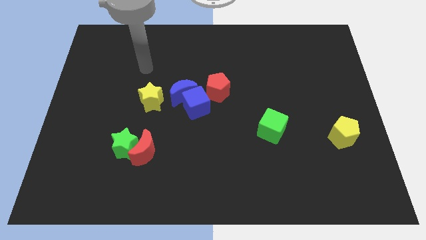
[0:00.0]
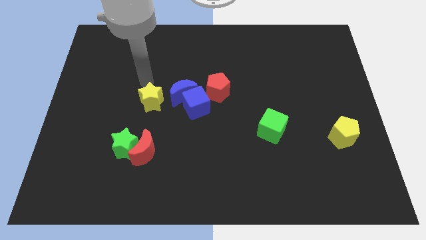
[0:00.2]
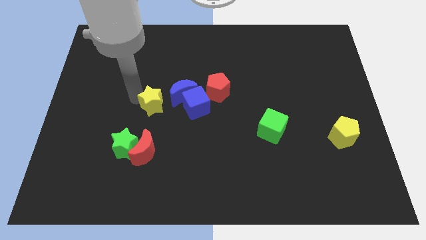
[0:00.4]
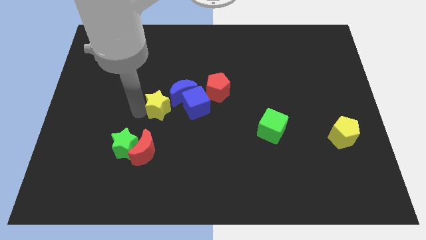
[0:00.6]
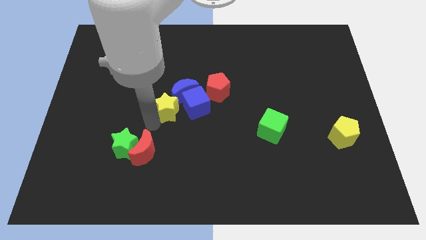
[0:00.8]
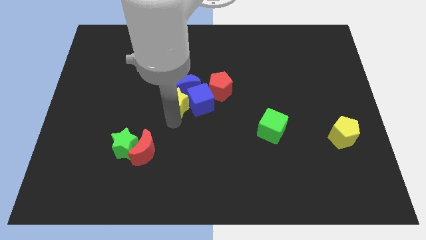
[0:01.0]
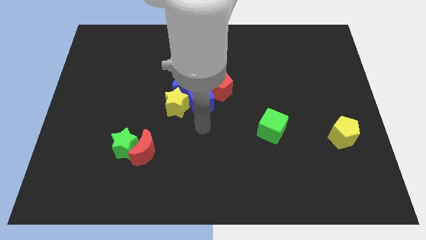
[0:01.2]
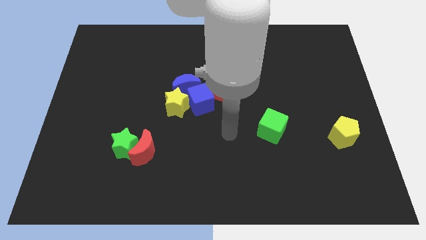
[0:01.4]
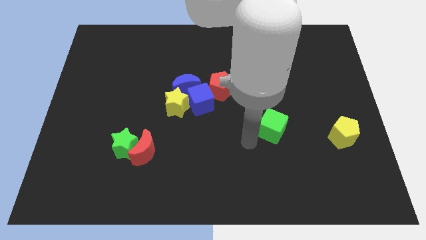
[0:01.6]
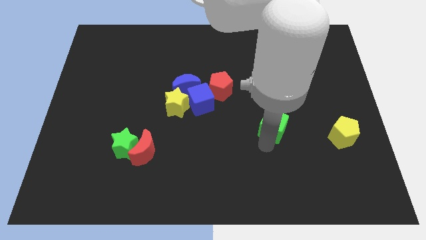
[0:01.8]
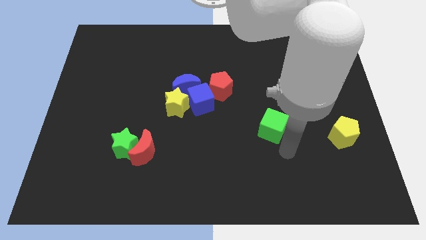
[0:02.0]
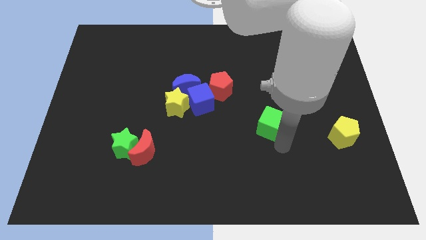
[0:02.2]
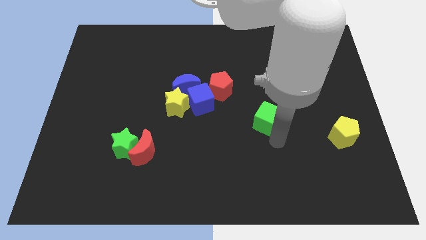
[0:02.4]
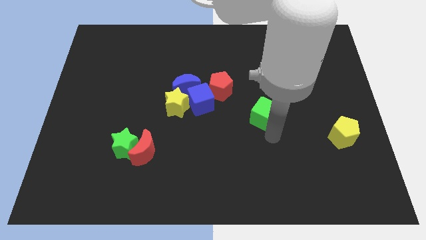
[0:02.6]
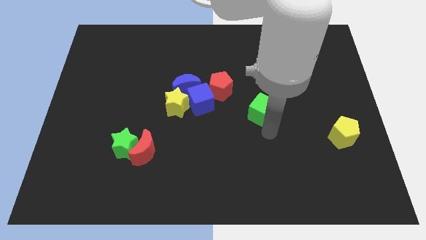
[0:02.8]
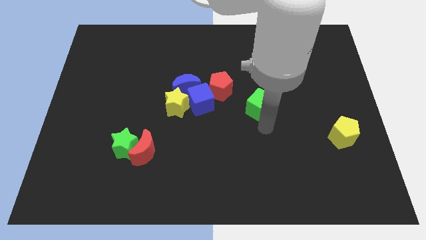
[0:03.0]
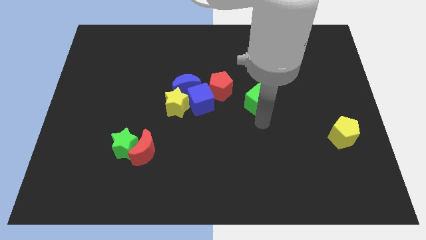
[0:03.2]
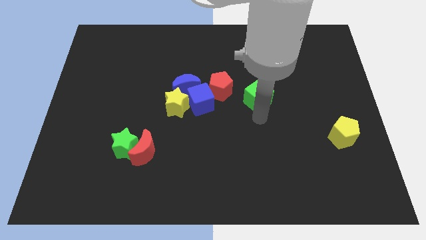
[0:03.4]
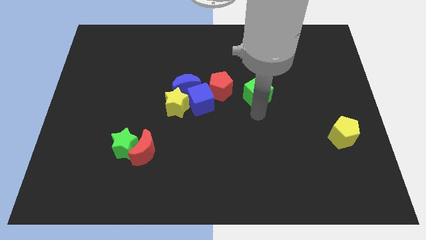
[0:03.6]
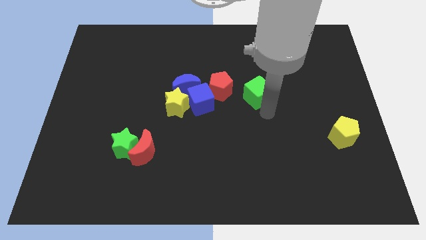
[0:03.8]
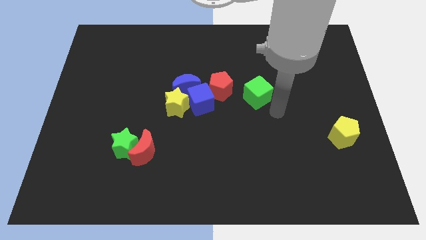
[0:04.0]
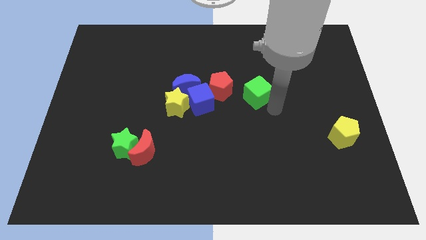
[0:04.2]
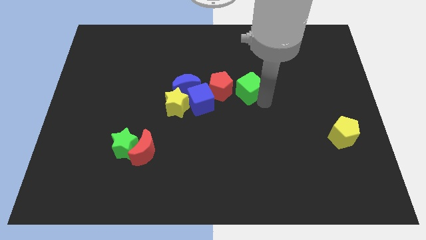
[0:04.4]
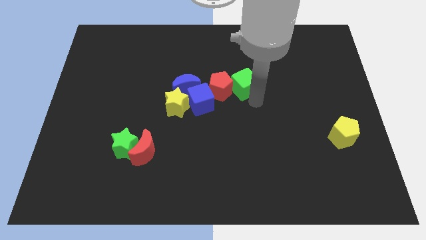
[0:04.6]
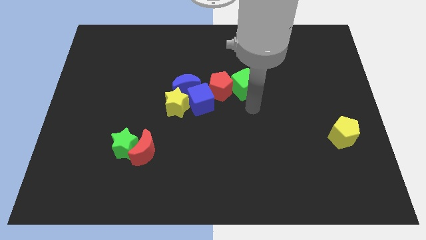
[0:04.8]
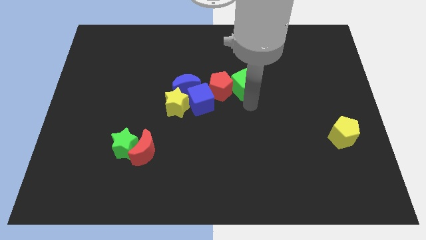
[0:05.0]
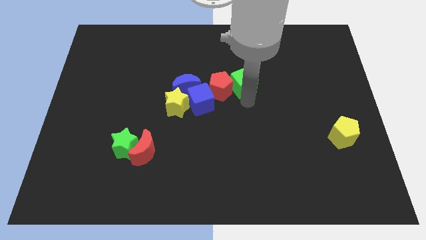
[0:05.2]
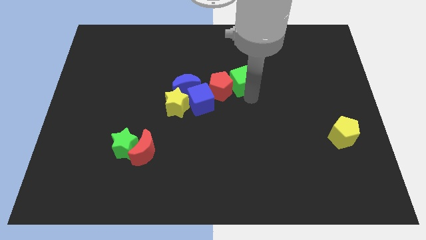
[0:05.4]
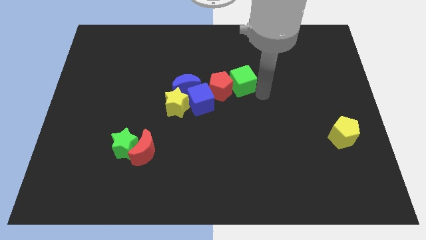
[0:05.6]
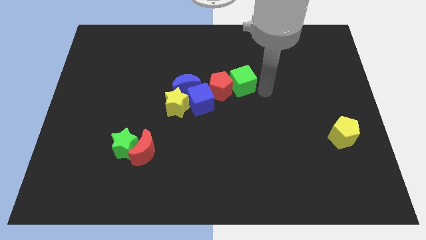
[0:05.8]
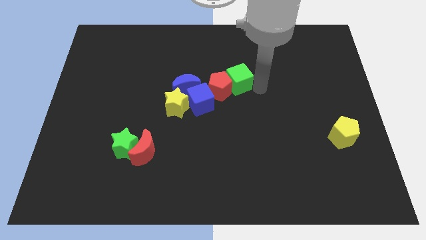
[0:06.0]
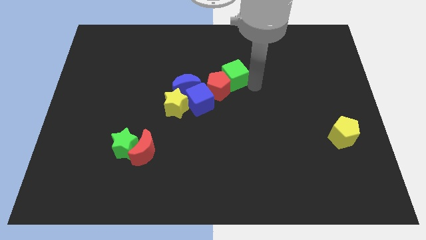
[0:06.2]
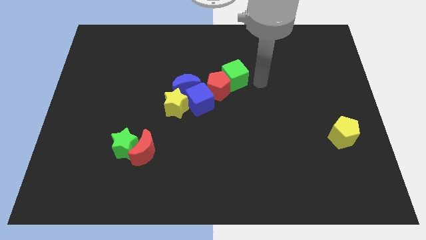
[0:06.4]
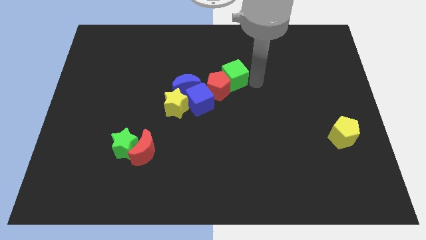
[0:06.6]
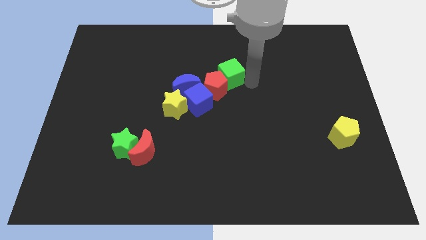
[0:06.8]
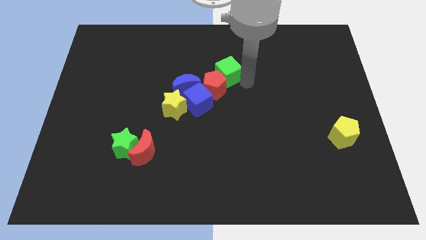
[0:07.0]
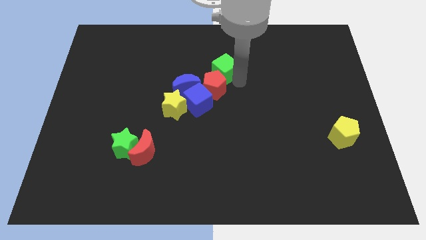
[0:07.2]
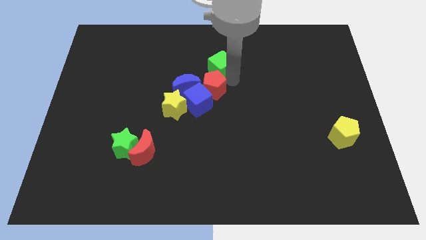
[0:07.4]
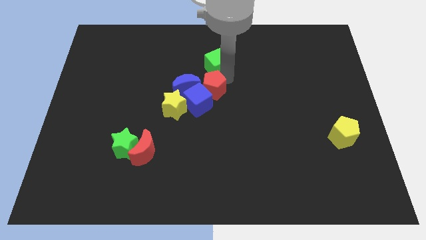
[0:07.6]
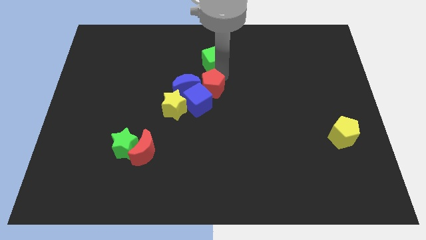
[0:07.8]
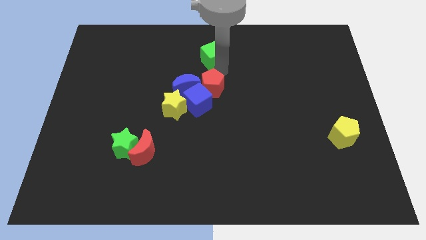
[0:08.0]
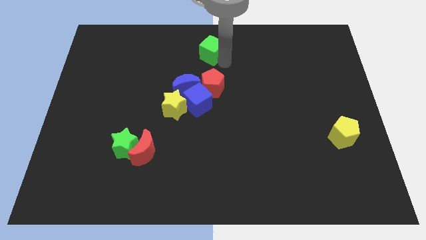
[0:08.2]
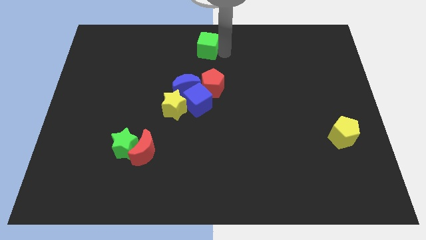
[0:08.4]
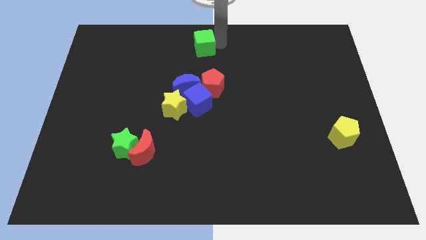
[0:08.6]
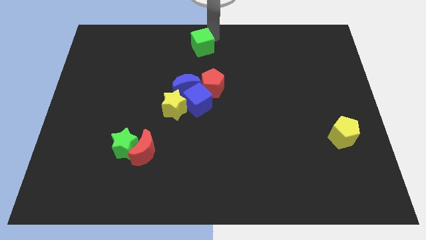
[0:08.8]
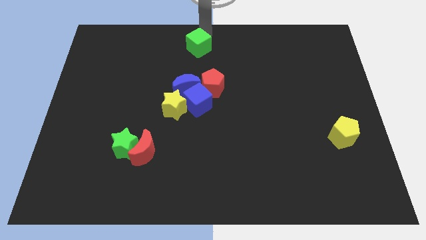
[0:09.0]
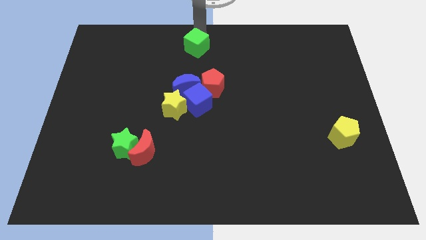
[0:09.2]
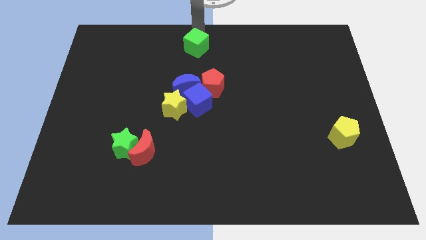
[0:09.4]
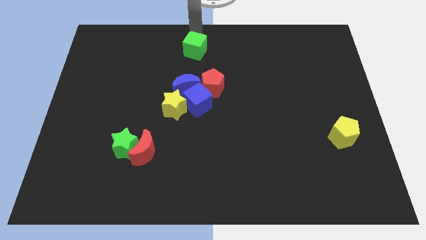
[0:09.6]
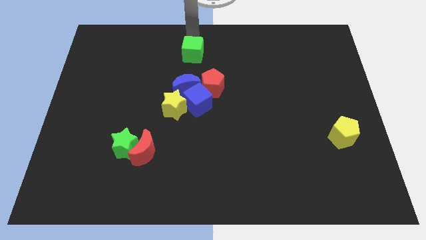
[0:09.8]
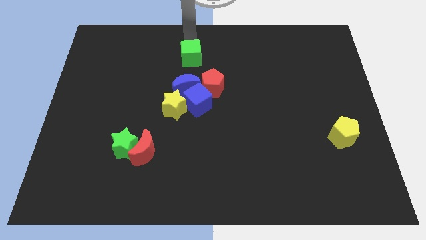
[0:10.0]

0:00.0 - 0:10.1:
push the green cube to the top left of the red pentagon

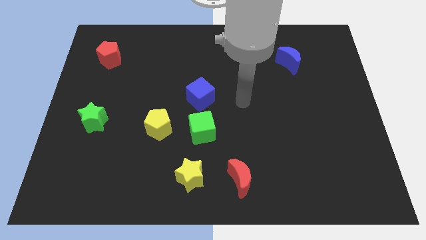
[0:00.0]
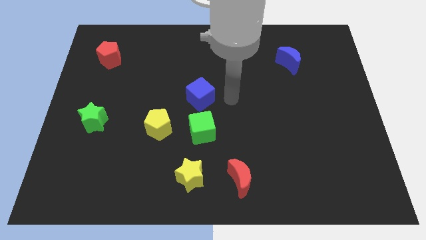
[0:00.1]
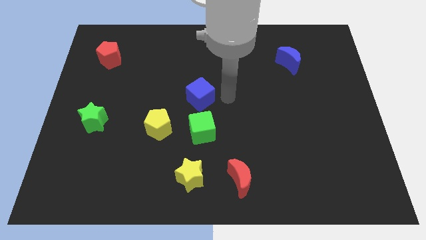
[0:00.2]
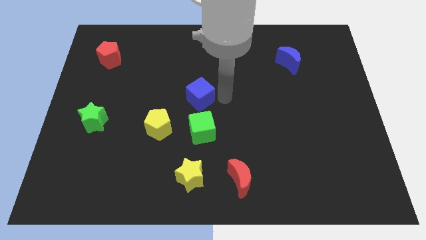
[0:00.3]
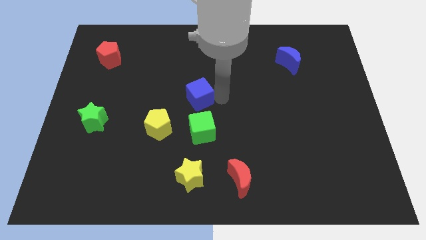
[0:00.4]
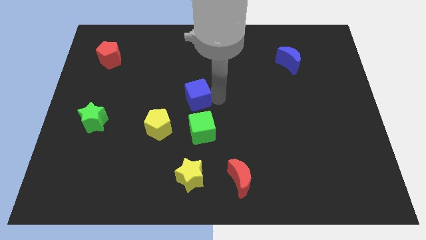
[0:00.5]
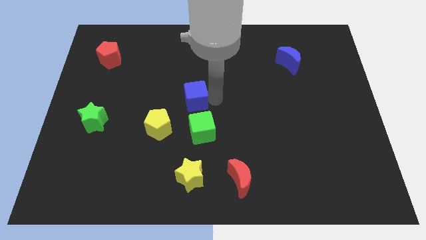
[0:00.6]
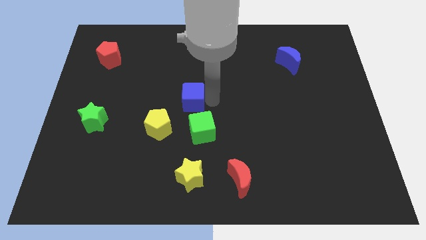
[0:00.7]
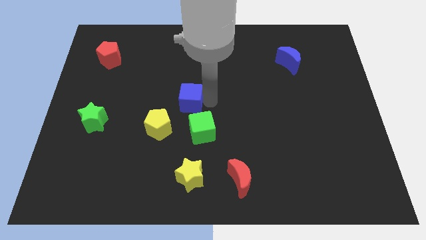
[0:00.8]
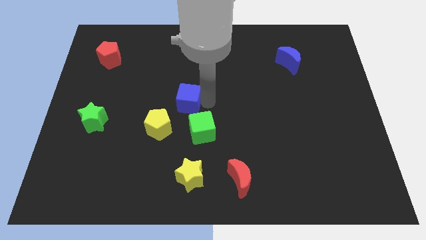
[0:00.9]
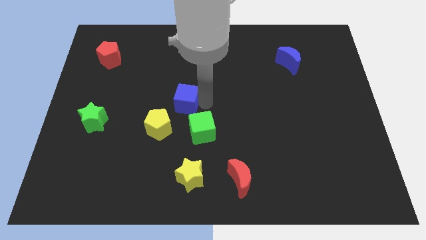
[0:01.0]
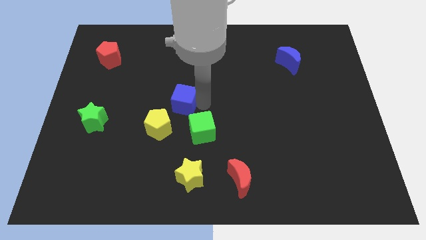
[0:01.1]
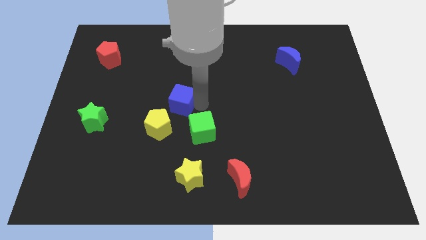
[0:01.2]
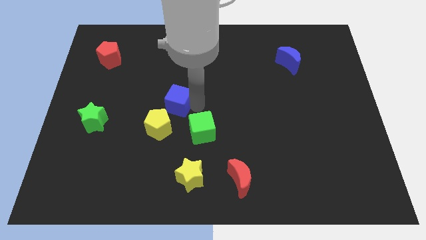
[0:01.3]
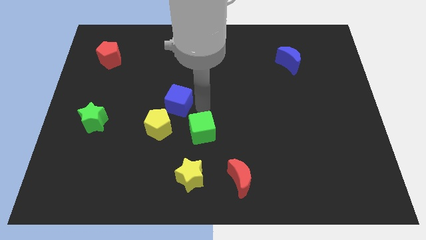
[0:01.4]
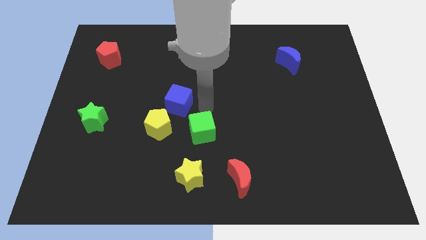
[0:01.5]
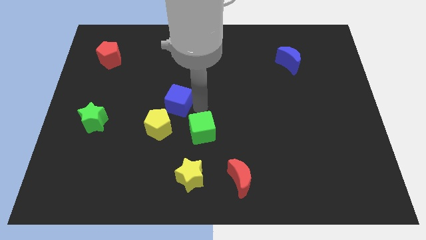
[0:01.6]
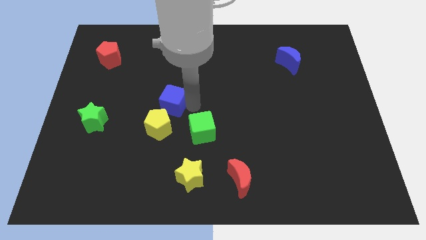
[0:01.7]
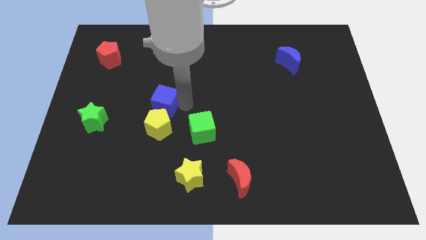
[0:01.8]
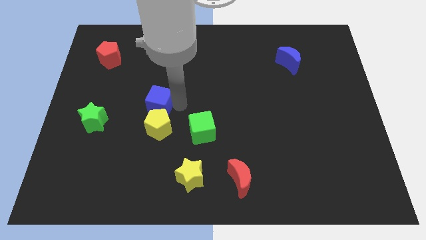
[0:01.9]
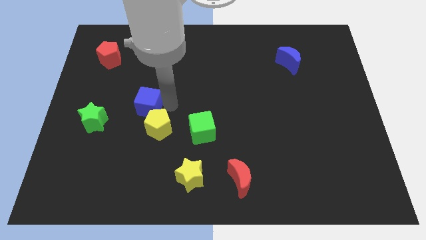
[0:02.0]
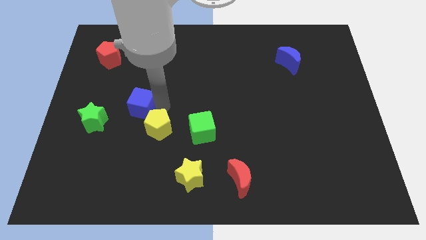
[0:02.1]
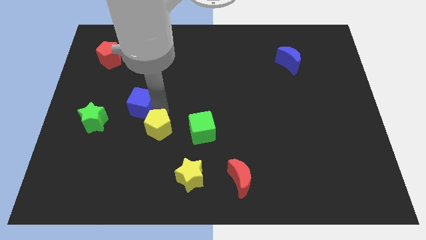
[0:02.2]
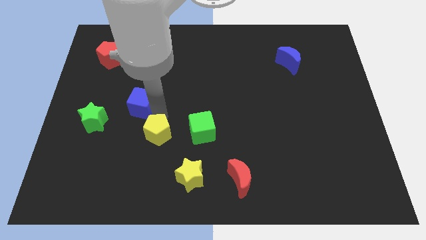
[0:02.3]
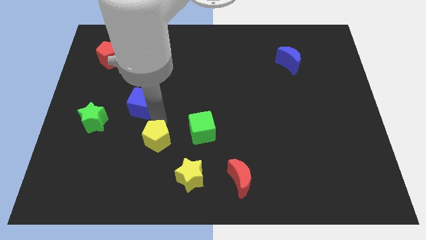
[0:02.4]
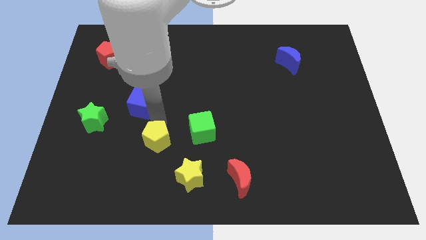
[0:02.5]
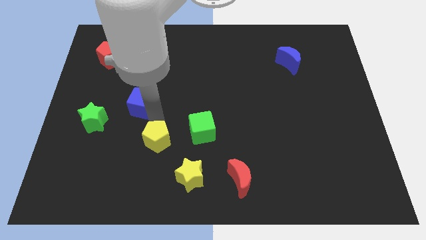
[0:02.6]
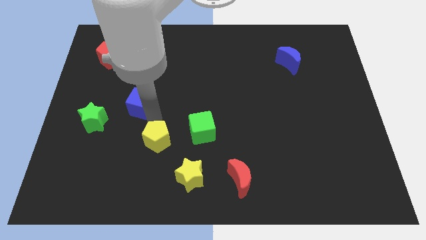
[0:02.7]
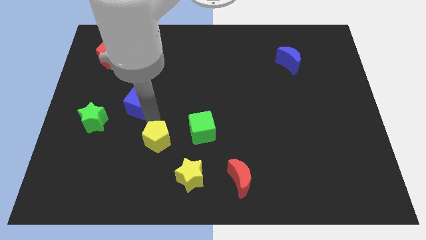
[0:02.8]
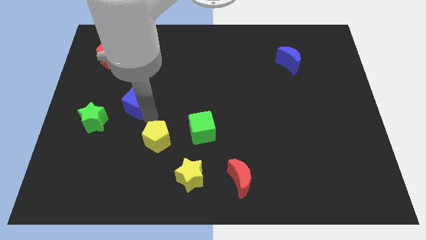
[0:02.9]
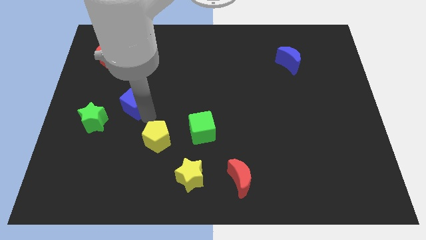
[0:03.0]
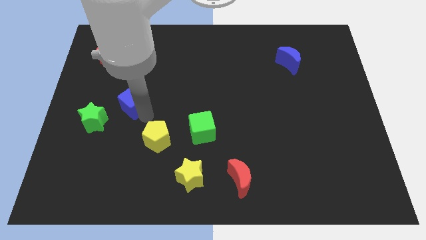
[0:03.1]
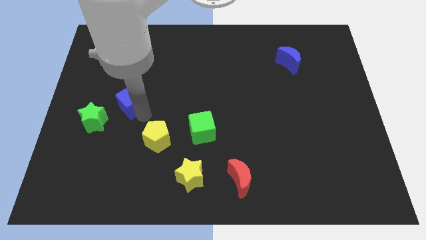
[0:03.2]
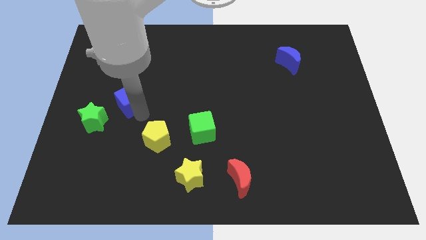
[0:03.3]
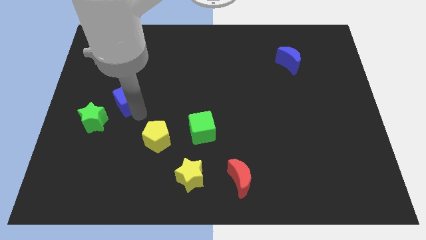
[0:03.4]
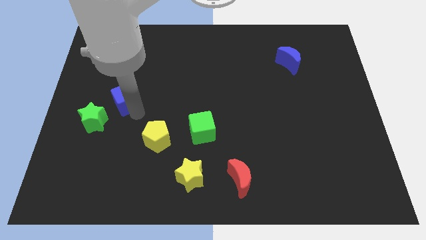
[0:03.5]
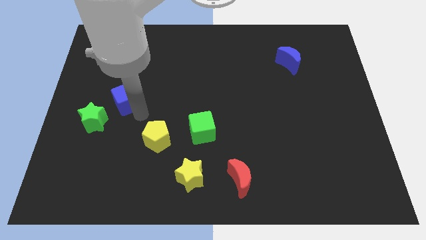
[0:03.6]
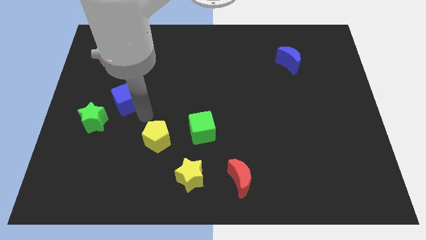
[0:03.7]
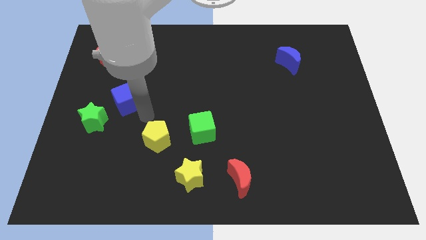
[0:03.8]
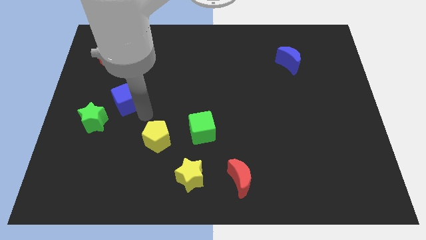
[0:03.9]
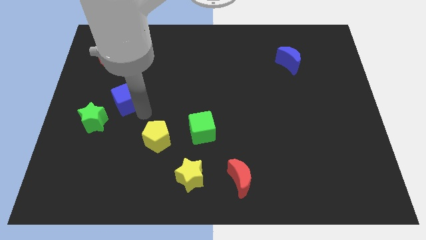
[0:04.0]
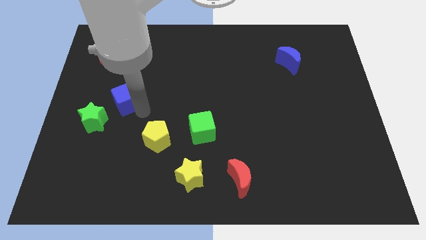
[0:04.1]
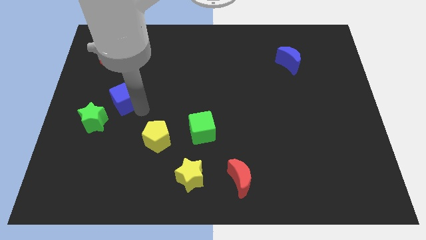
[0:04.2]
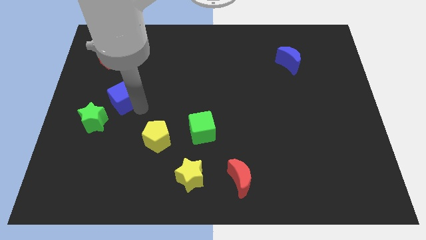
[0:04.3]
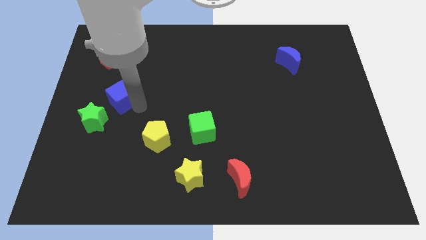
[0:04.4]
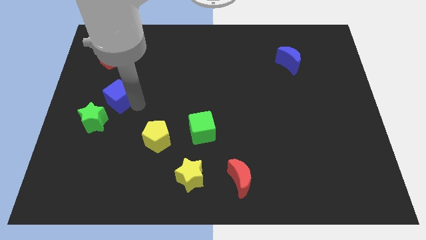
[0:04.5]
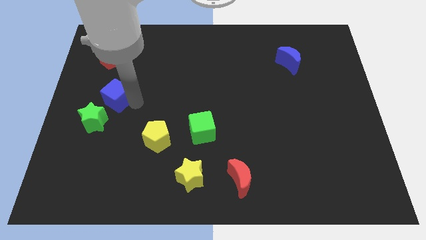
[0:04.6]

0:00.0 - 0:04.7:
put the blue cube to the bottom of the red pentagon
